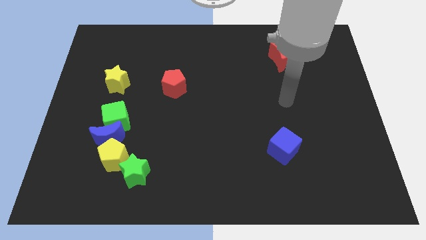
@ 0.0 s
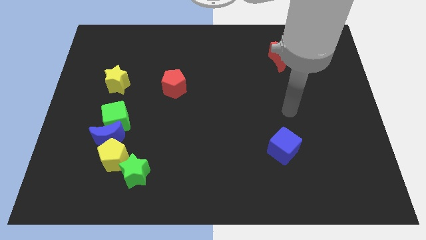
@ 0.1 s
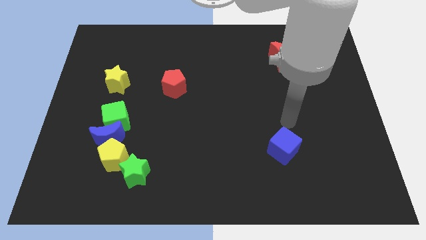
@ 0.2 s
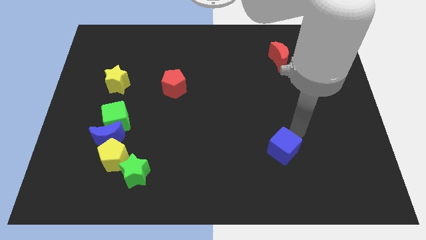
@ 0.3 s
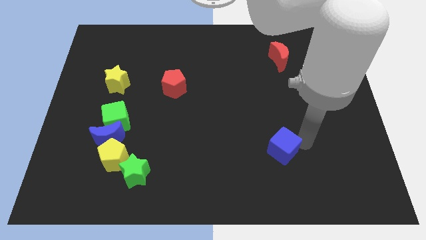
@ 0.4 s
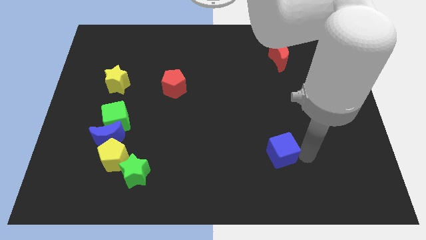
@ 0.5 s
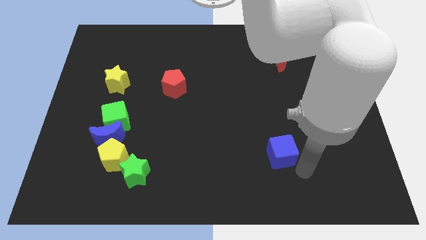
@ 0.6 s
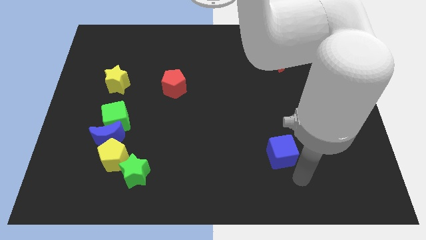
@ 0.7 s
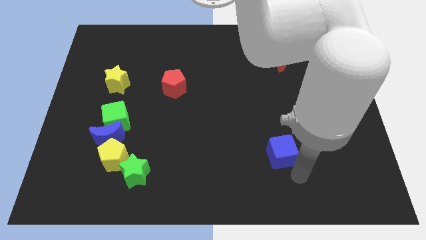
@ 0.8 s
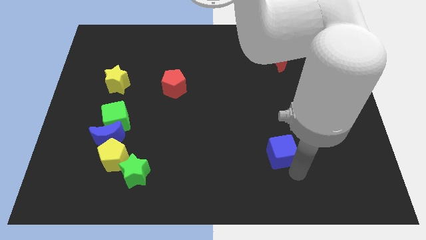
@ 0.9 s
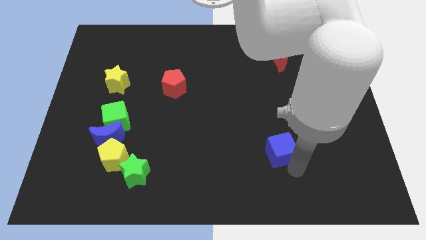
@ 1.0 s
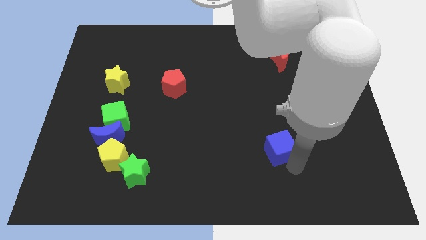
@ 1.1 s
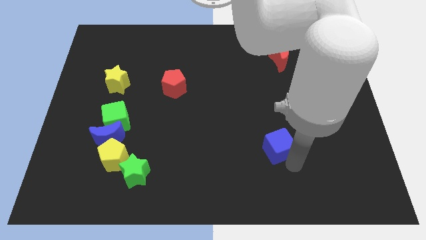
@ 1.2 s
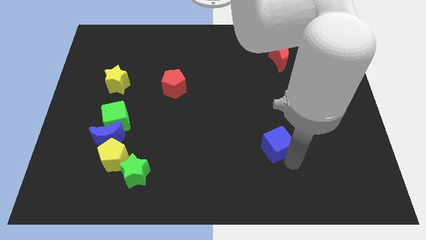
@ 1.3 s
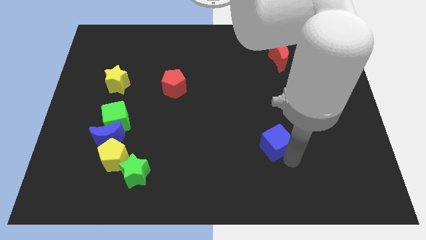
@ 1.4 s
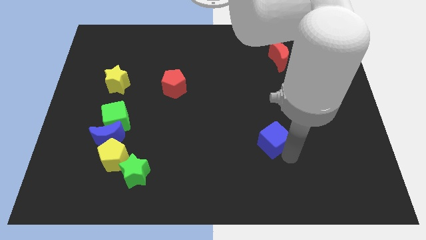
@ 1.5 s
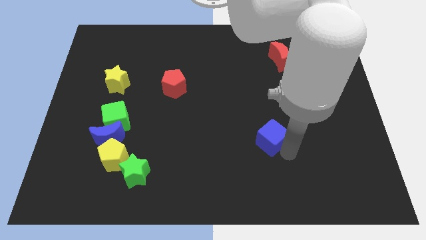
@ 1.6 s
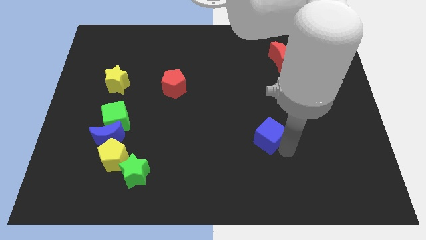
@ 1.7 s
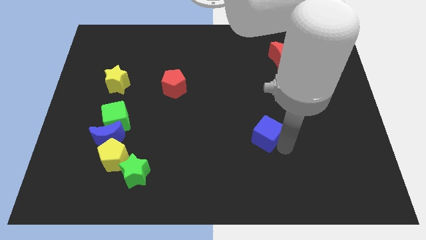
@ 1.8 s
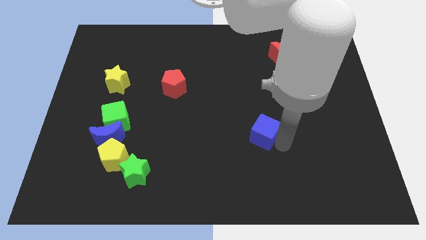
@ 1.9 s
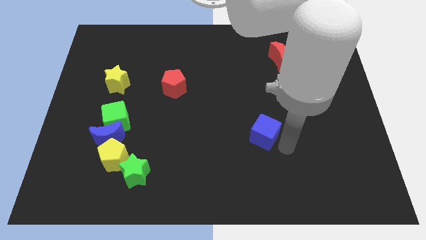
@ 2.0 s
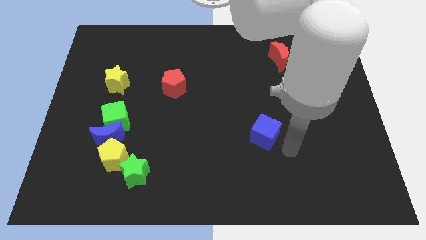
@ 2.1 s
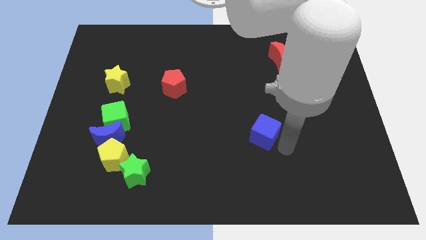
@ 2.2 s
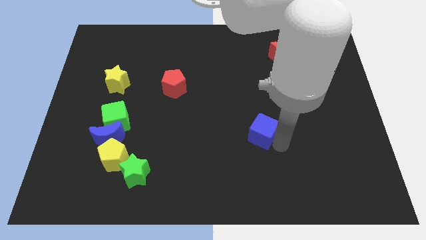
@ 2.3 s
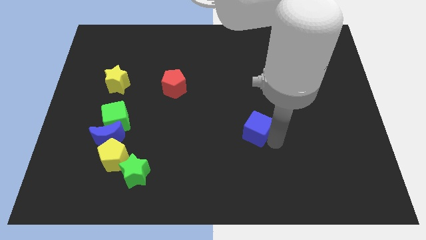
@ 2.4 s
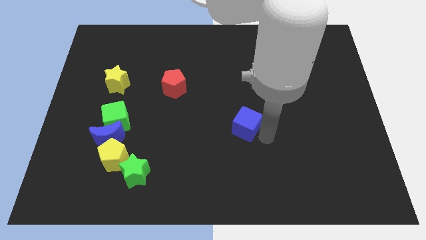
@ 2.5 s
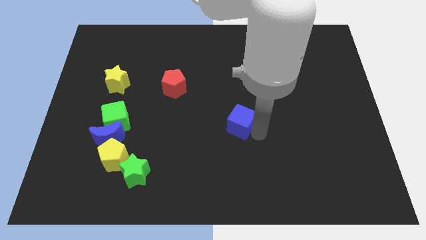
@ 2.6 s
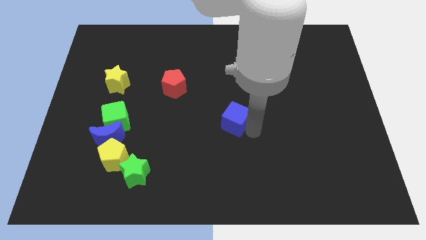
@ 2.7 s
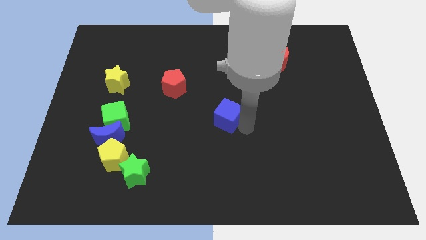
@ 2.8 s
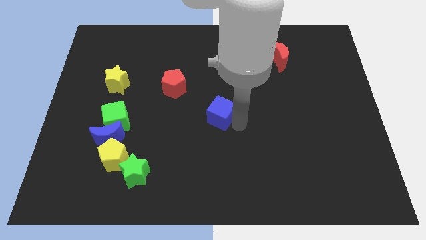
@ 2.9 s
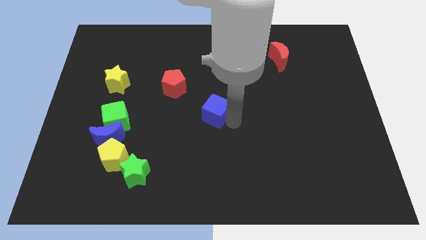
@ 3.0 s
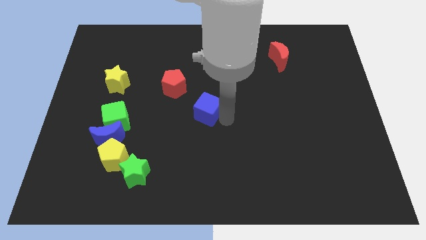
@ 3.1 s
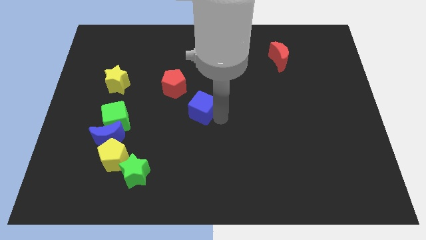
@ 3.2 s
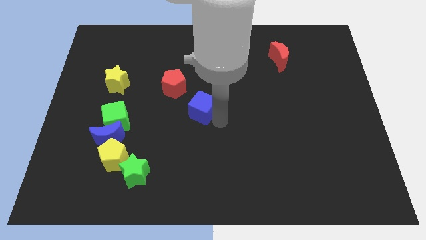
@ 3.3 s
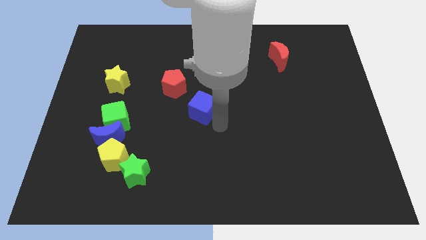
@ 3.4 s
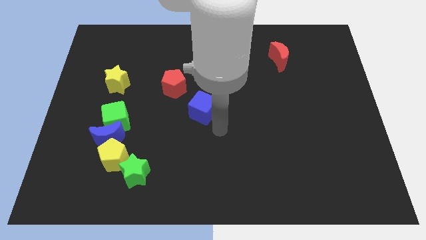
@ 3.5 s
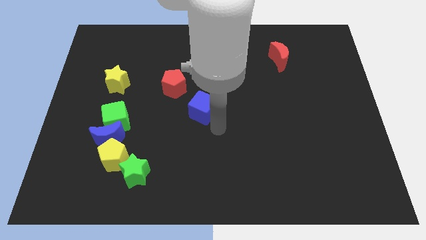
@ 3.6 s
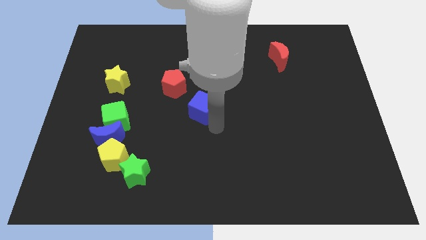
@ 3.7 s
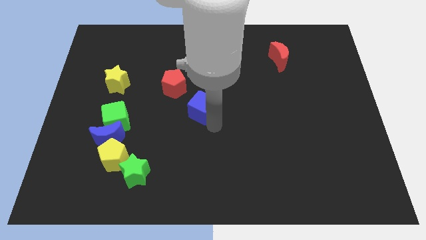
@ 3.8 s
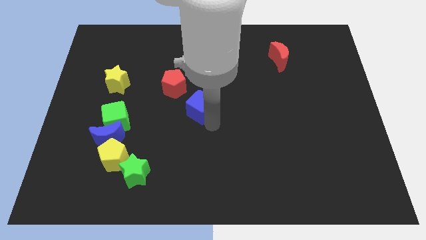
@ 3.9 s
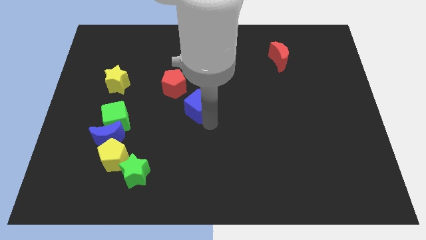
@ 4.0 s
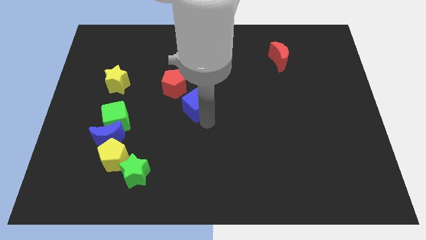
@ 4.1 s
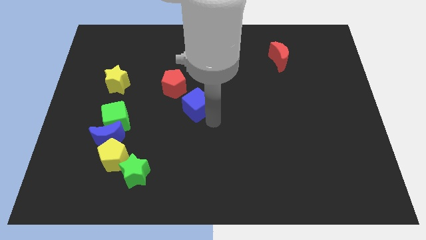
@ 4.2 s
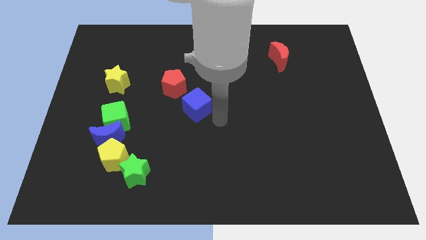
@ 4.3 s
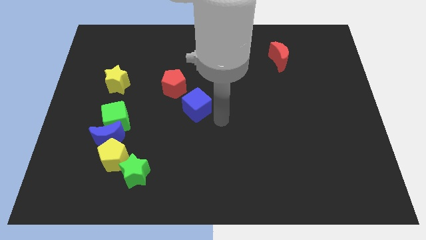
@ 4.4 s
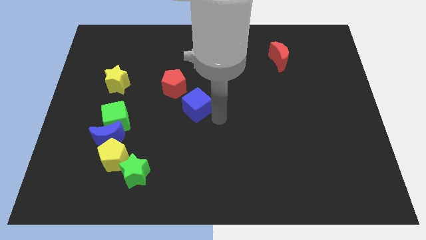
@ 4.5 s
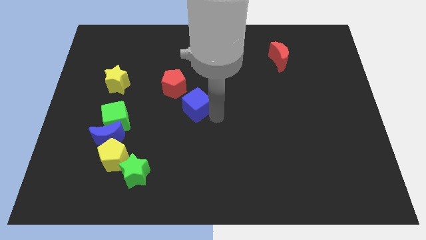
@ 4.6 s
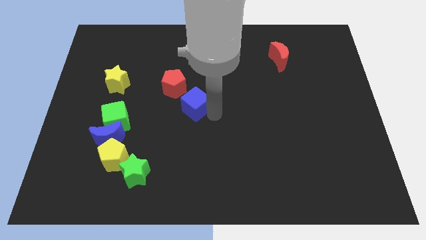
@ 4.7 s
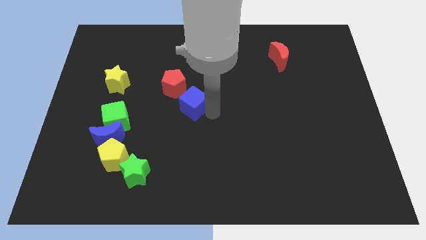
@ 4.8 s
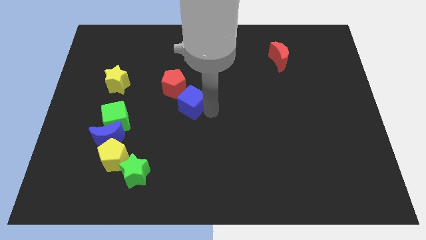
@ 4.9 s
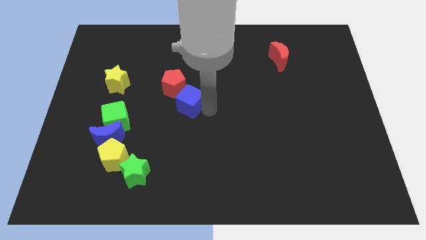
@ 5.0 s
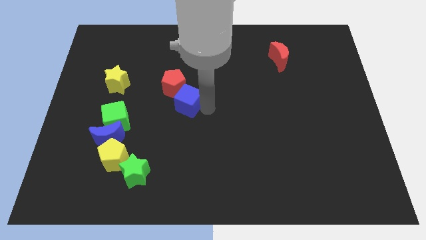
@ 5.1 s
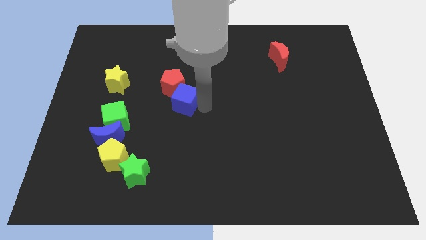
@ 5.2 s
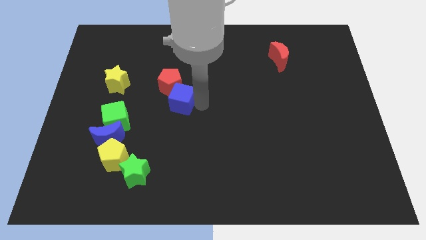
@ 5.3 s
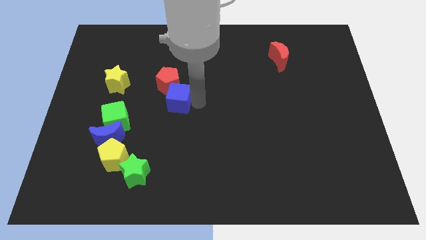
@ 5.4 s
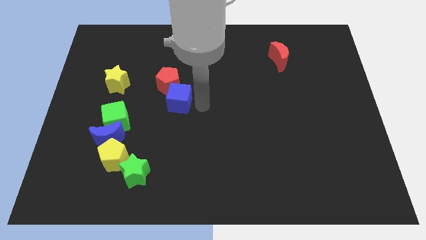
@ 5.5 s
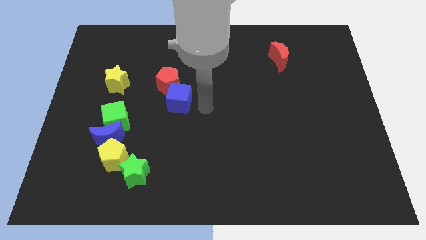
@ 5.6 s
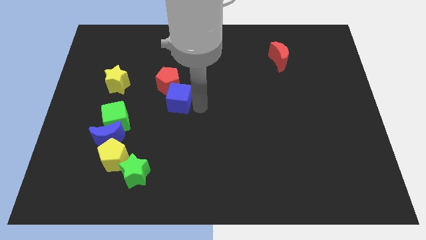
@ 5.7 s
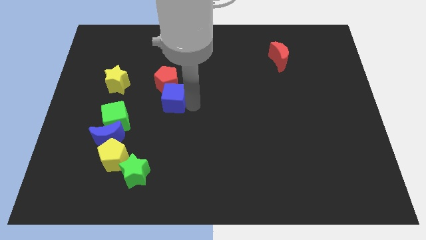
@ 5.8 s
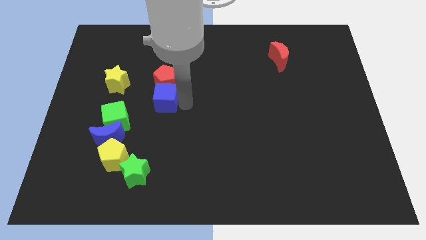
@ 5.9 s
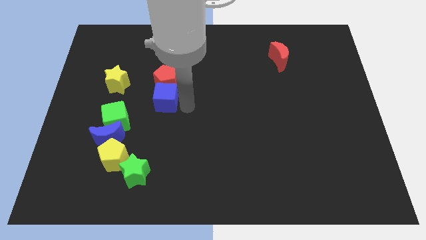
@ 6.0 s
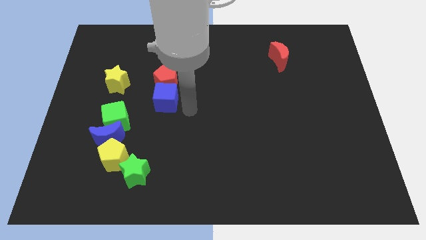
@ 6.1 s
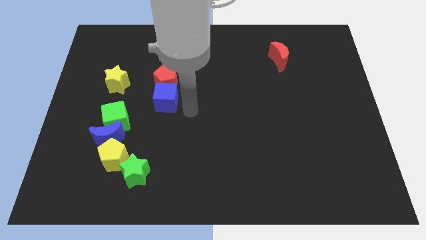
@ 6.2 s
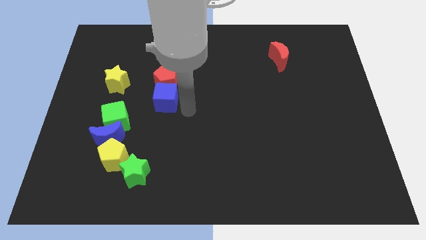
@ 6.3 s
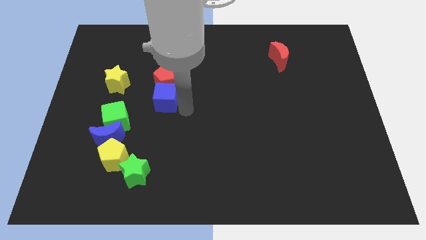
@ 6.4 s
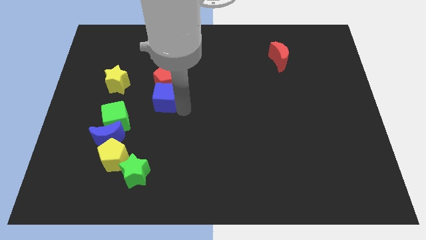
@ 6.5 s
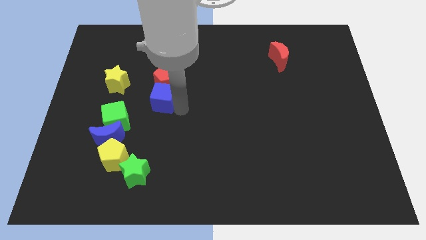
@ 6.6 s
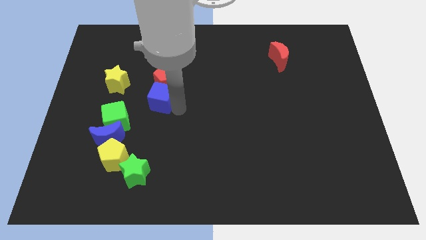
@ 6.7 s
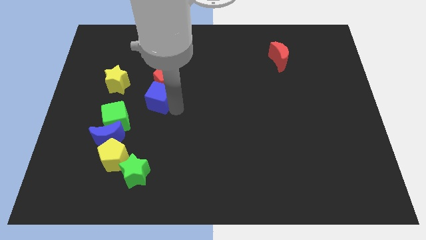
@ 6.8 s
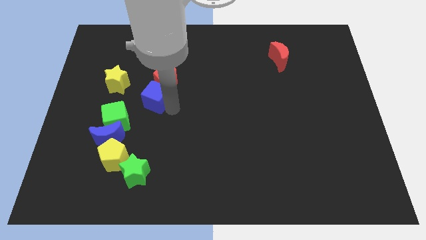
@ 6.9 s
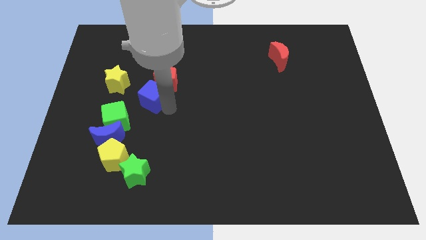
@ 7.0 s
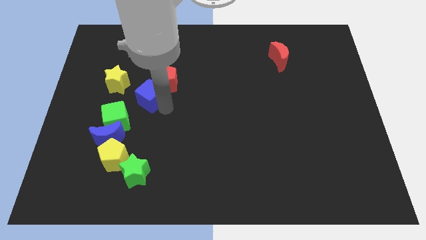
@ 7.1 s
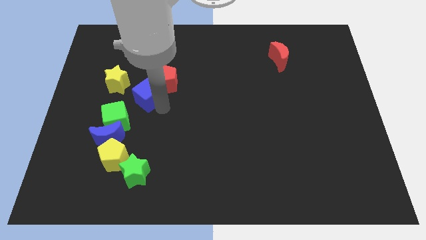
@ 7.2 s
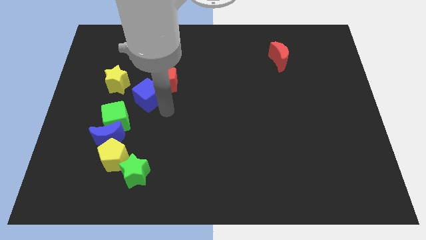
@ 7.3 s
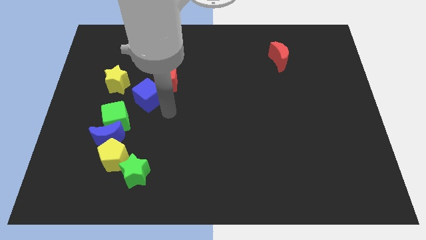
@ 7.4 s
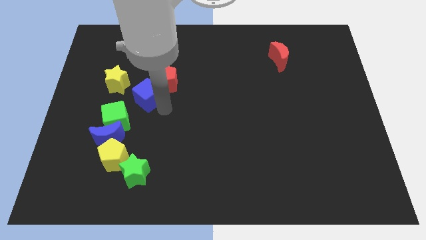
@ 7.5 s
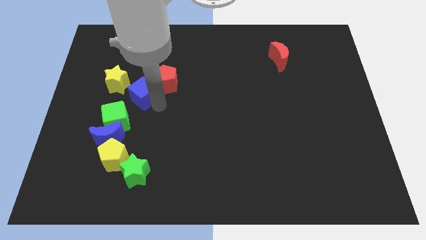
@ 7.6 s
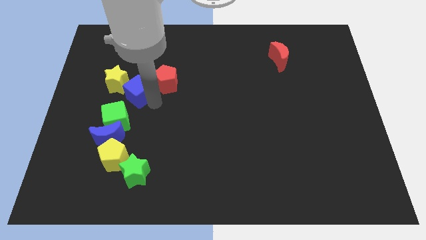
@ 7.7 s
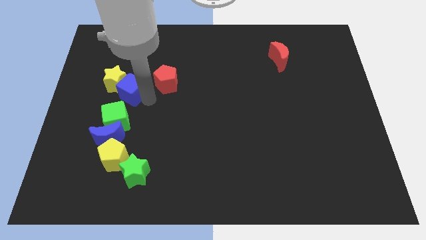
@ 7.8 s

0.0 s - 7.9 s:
slide the blue cube close to the yellow star

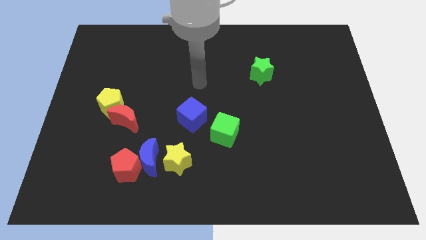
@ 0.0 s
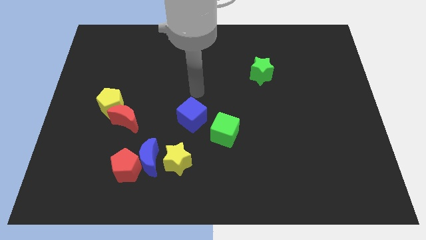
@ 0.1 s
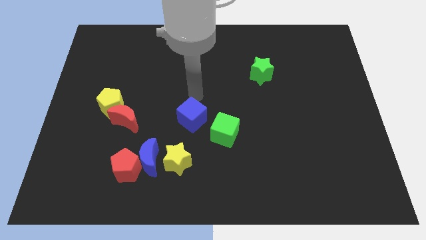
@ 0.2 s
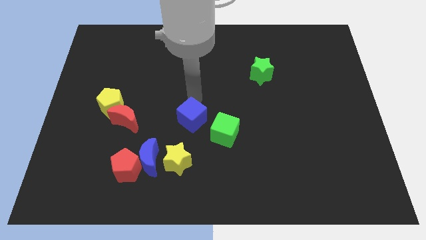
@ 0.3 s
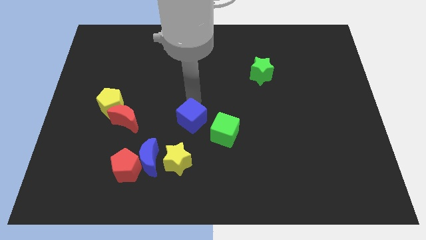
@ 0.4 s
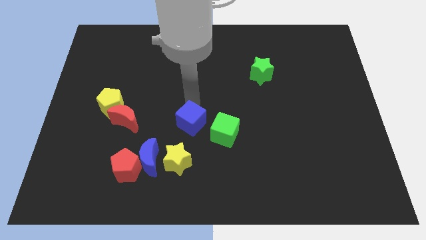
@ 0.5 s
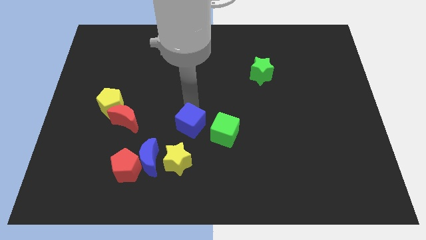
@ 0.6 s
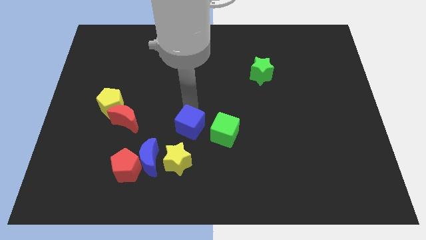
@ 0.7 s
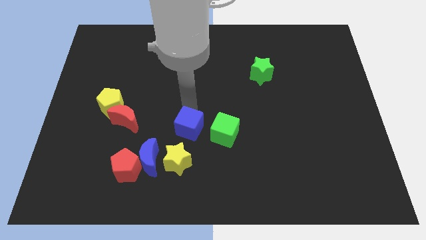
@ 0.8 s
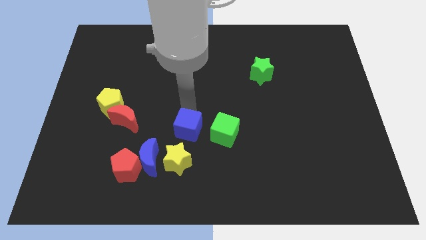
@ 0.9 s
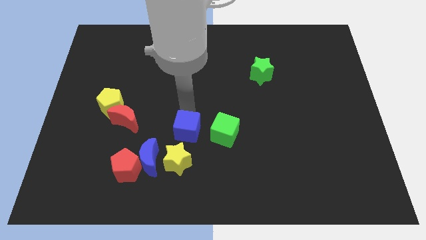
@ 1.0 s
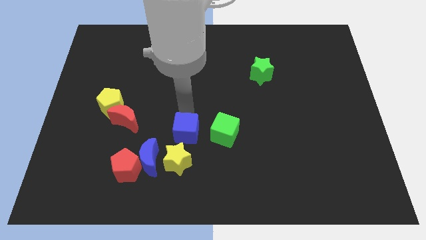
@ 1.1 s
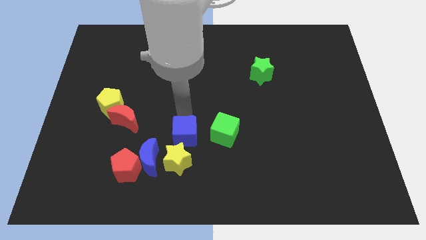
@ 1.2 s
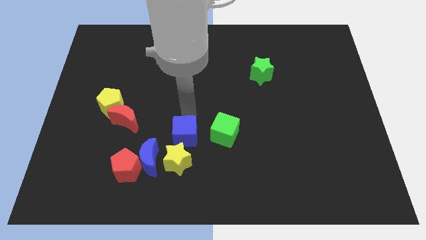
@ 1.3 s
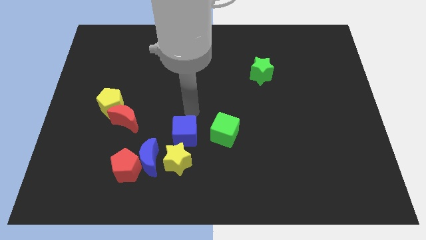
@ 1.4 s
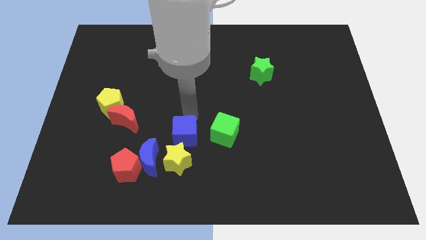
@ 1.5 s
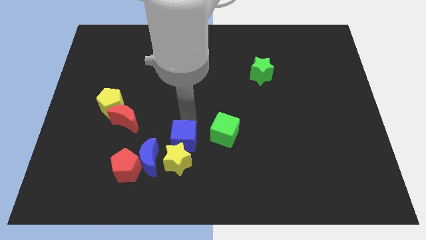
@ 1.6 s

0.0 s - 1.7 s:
move the blue cube next to the yellow star
